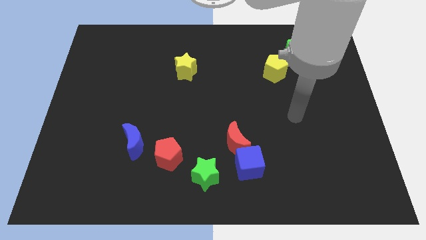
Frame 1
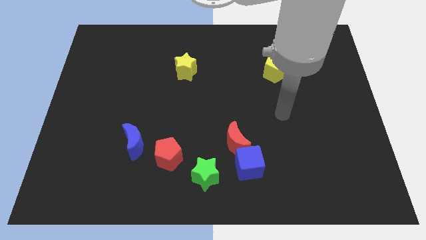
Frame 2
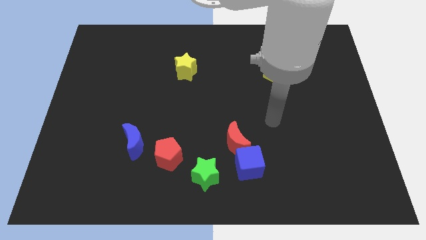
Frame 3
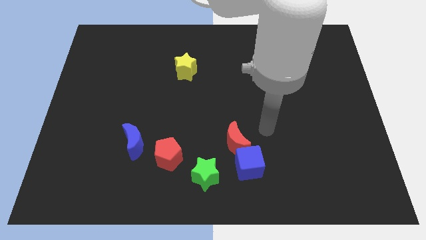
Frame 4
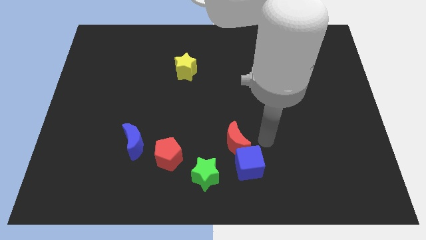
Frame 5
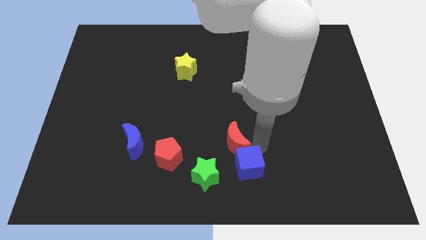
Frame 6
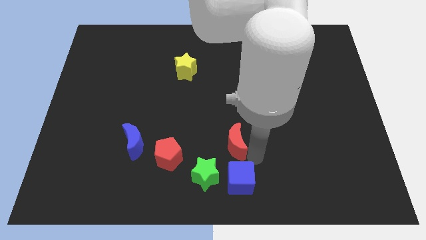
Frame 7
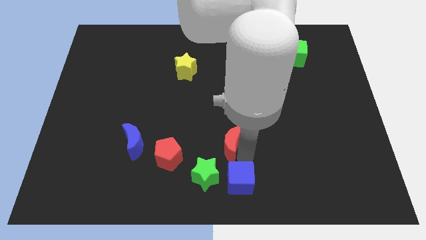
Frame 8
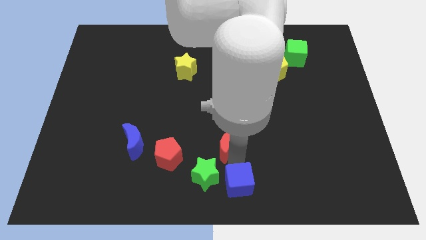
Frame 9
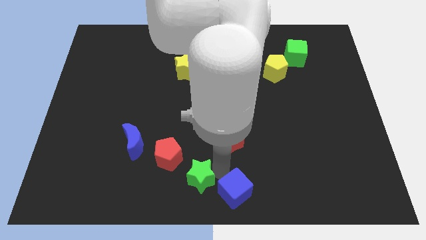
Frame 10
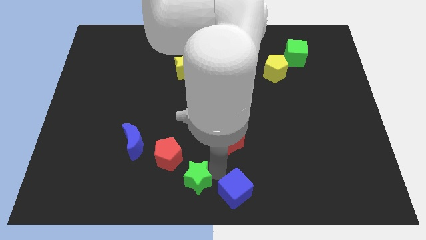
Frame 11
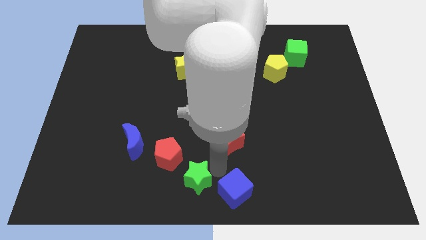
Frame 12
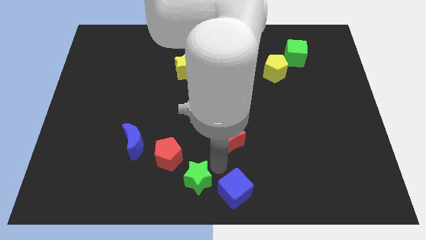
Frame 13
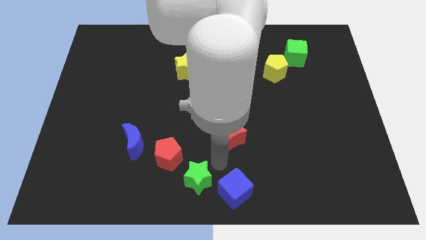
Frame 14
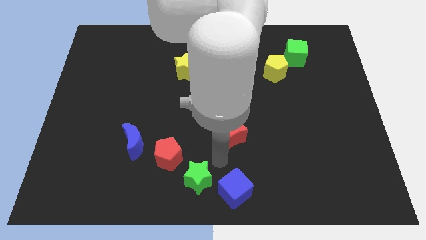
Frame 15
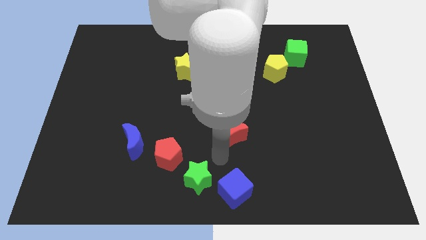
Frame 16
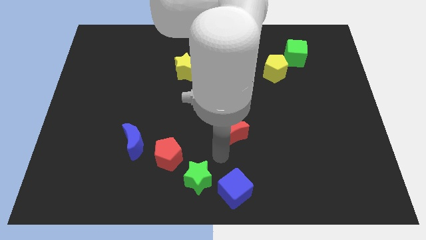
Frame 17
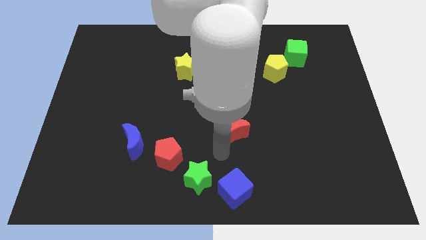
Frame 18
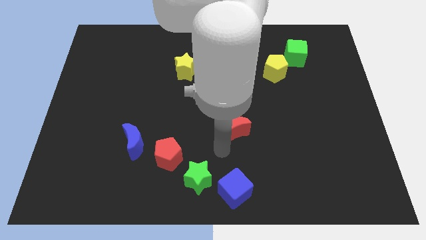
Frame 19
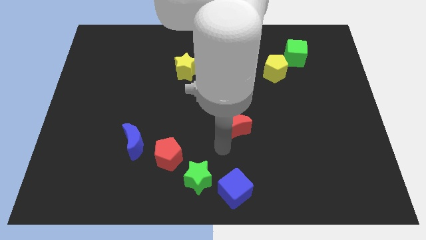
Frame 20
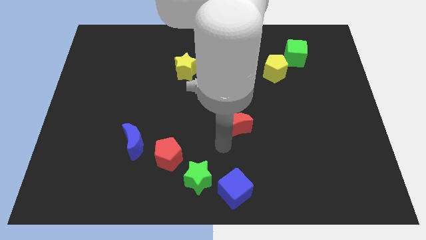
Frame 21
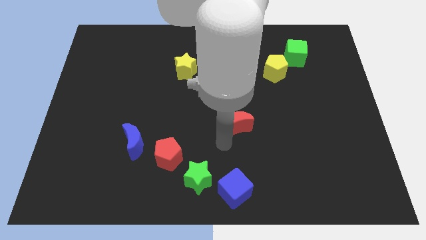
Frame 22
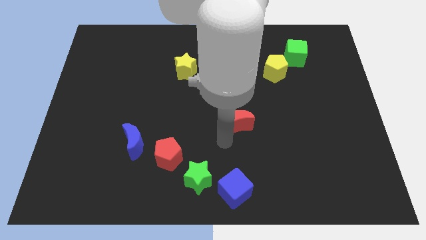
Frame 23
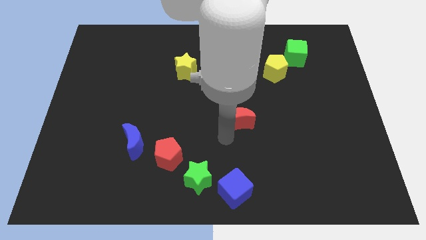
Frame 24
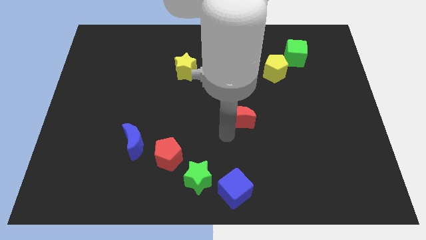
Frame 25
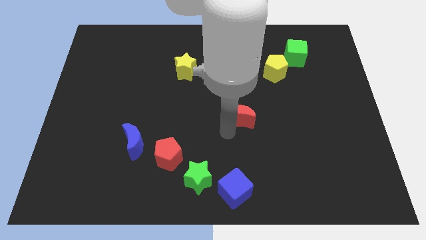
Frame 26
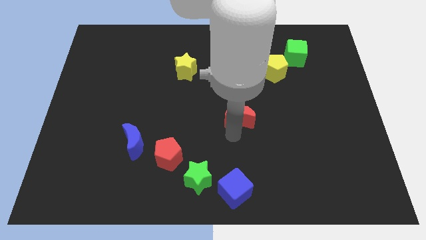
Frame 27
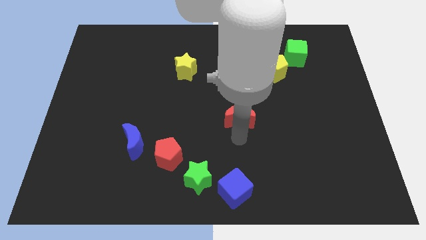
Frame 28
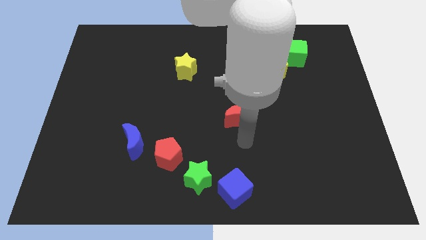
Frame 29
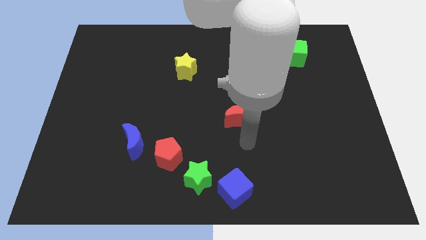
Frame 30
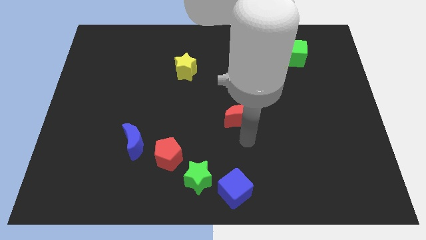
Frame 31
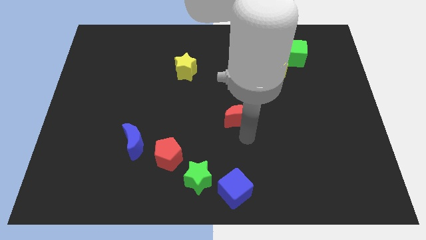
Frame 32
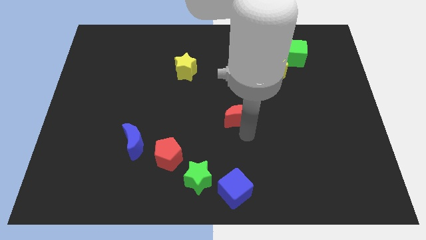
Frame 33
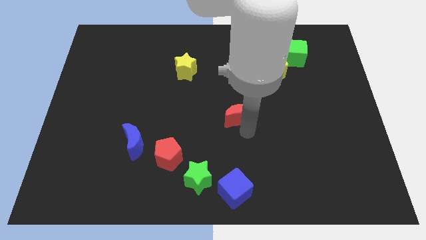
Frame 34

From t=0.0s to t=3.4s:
slide the red moon somewhat up

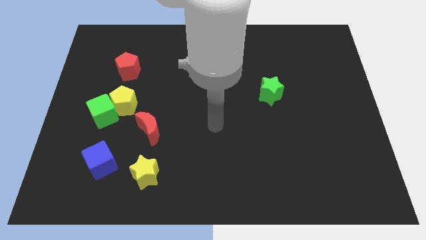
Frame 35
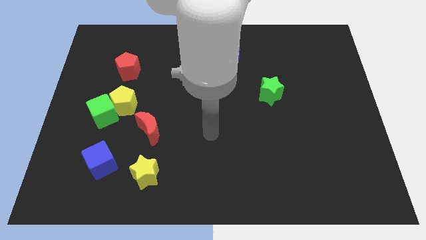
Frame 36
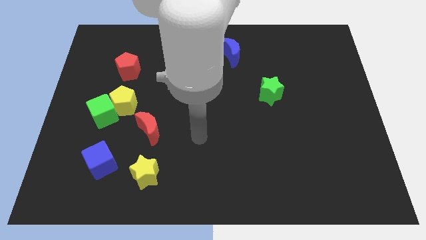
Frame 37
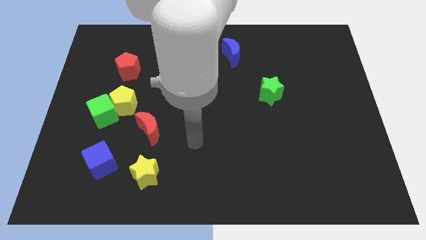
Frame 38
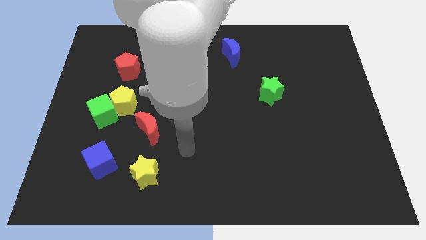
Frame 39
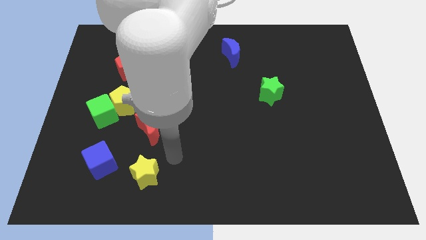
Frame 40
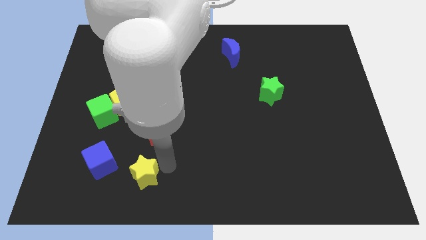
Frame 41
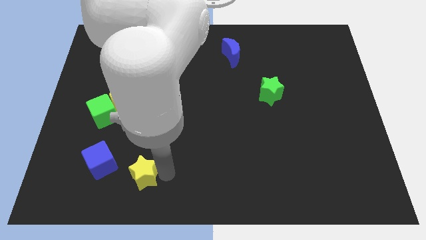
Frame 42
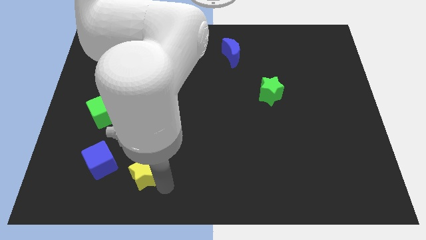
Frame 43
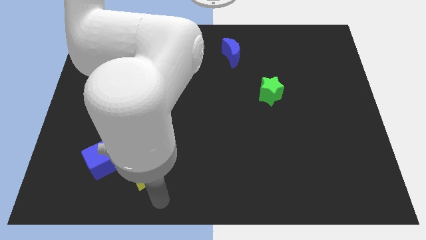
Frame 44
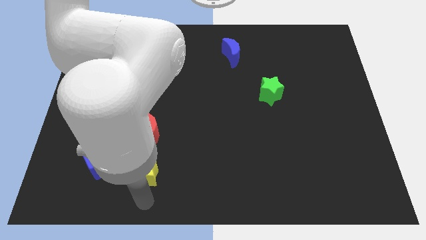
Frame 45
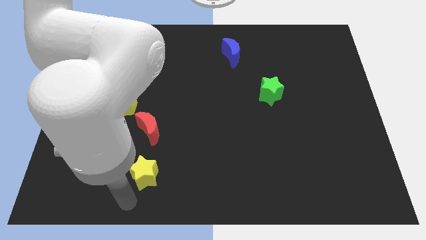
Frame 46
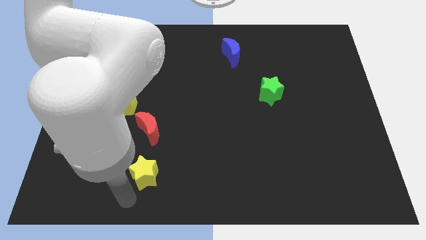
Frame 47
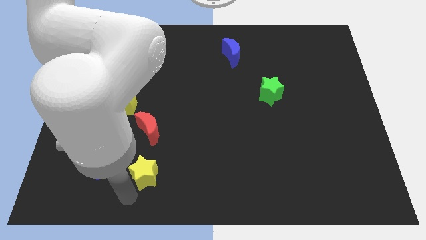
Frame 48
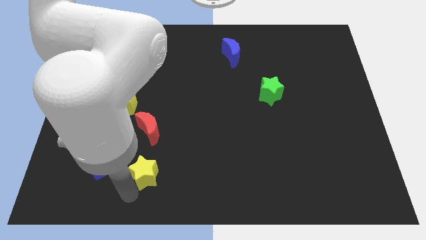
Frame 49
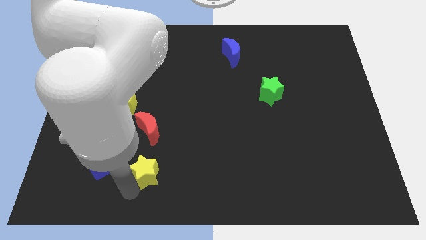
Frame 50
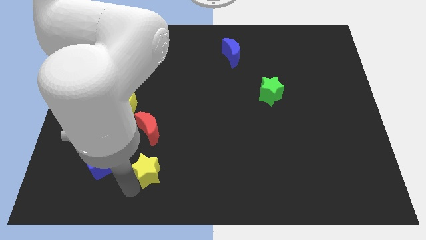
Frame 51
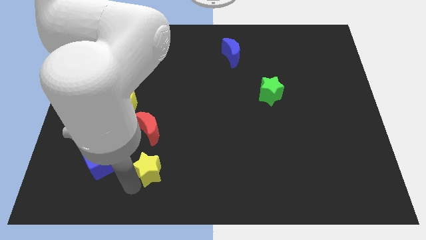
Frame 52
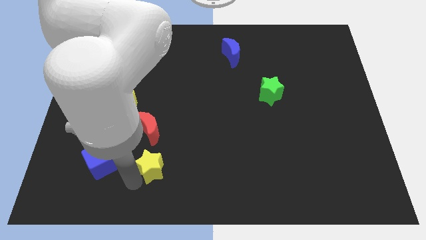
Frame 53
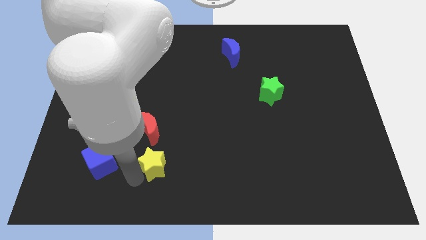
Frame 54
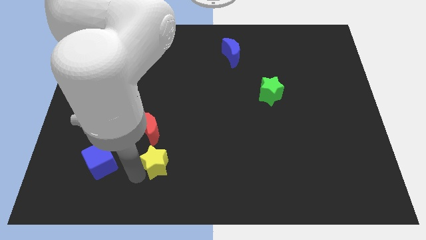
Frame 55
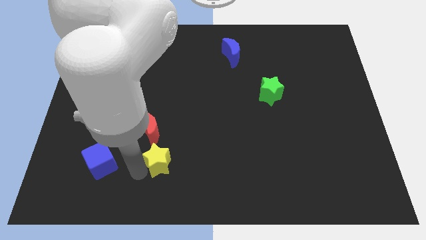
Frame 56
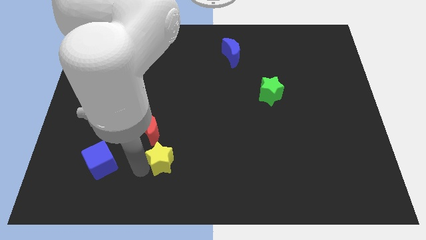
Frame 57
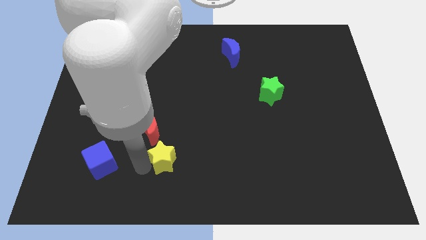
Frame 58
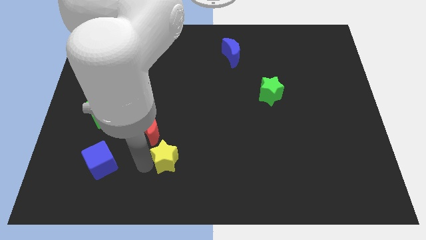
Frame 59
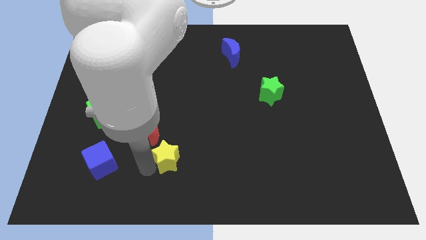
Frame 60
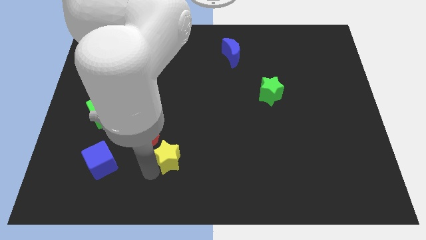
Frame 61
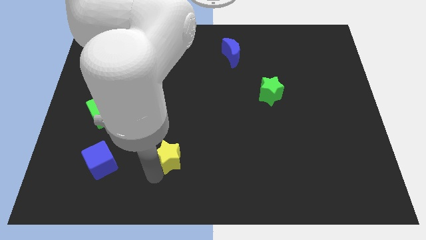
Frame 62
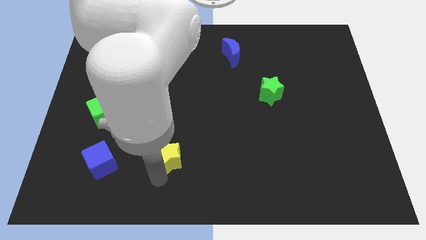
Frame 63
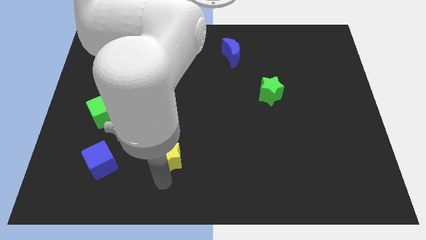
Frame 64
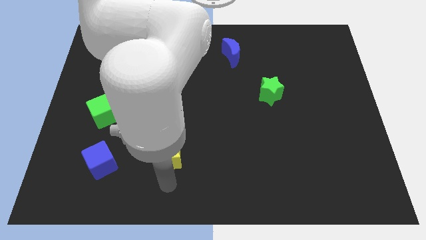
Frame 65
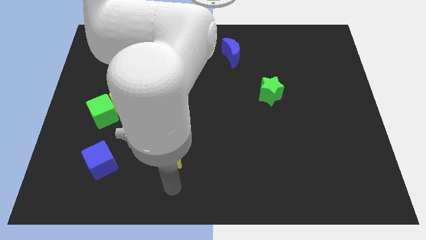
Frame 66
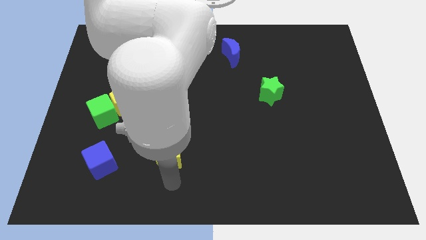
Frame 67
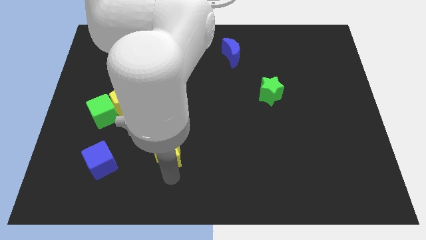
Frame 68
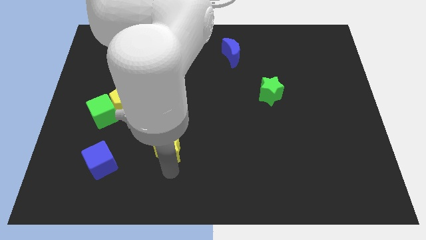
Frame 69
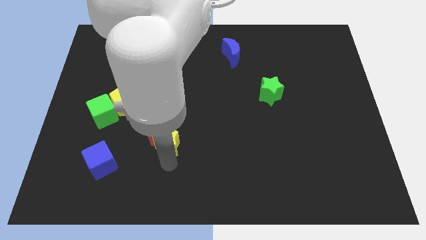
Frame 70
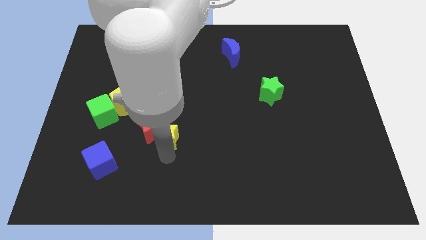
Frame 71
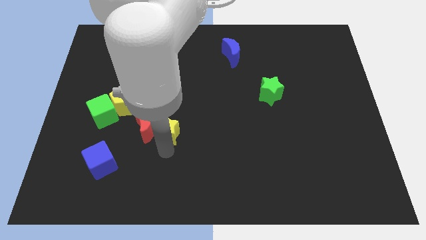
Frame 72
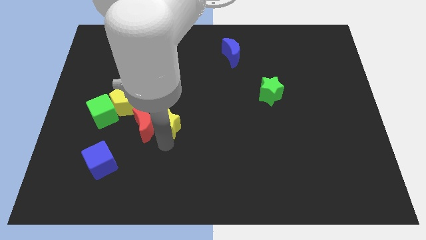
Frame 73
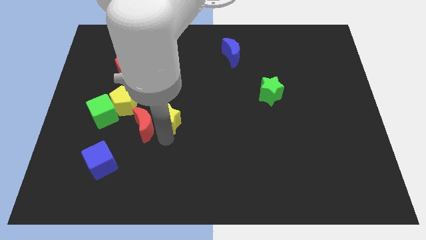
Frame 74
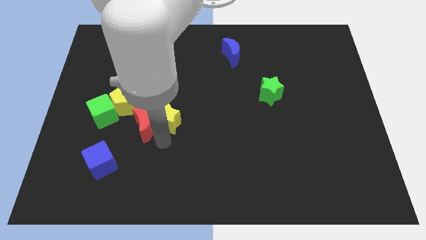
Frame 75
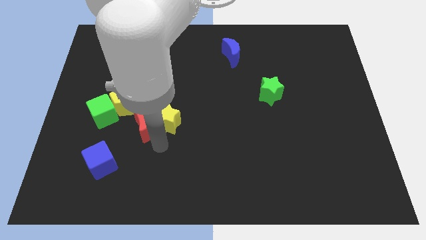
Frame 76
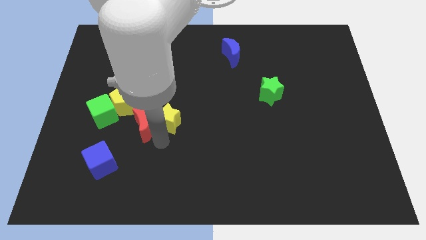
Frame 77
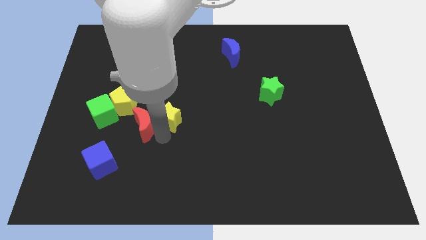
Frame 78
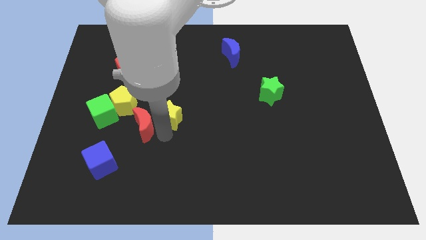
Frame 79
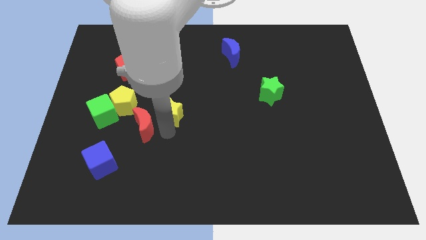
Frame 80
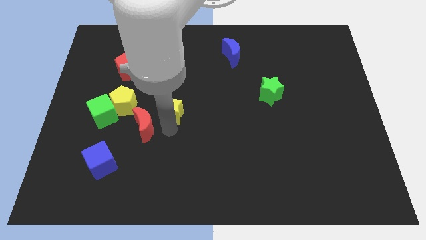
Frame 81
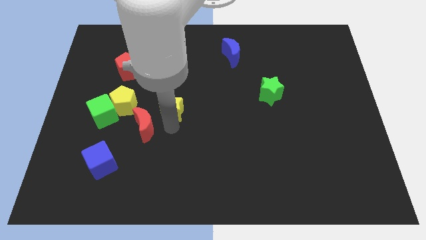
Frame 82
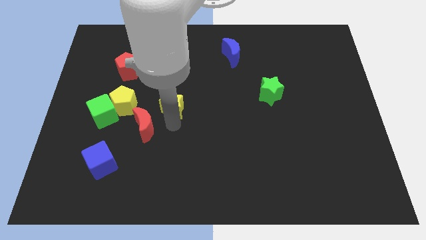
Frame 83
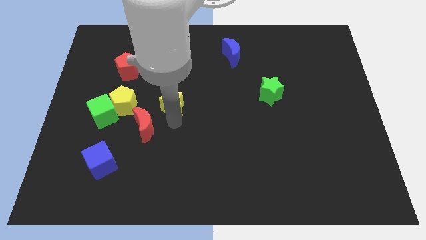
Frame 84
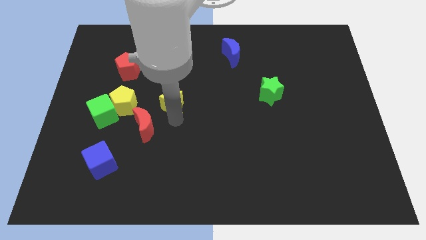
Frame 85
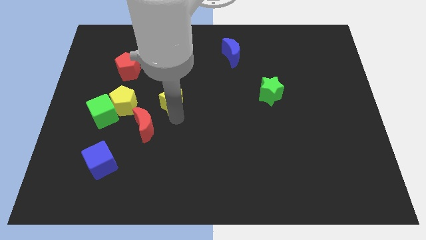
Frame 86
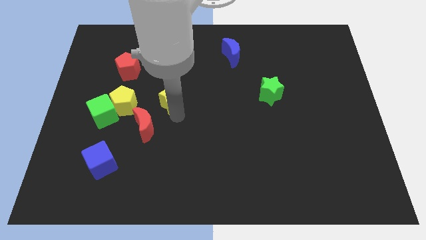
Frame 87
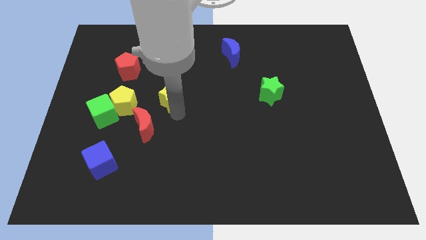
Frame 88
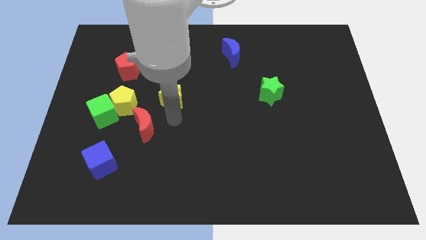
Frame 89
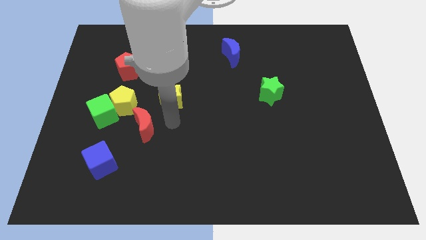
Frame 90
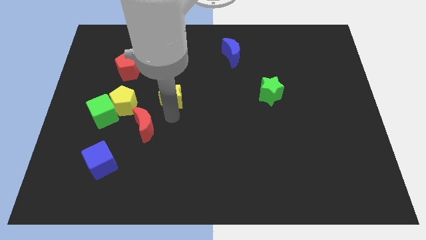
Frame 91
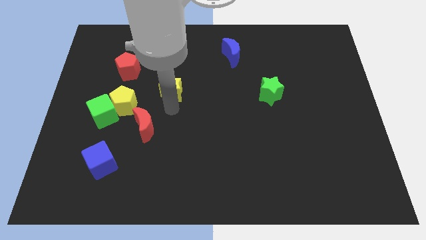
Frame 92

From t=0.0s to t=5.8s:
slide the yellow star upwards
